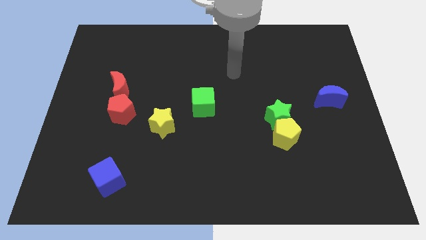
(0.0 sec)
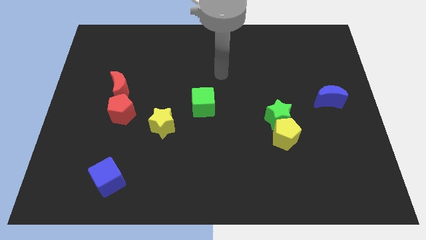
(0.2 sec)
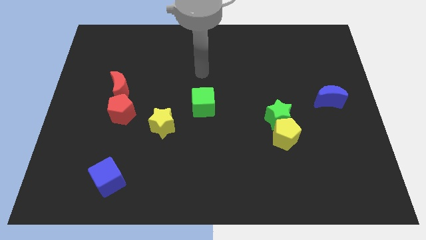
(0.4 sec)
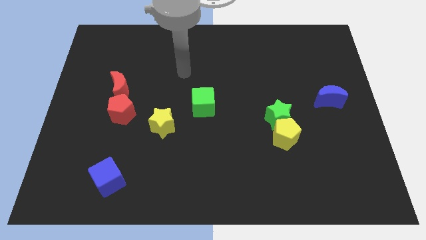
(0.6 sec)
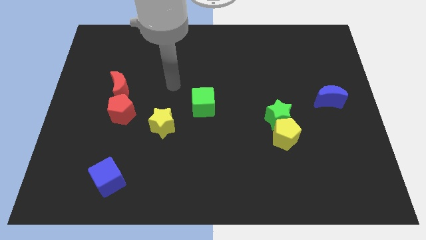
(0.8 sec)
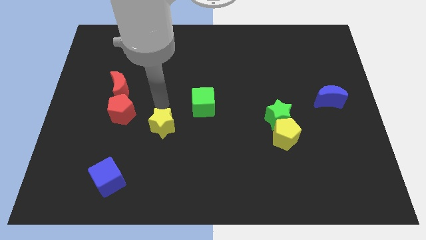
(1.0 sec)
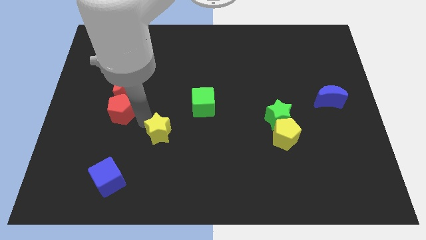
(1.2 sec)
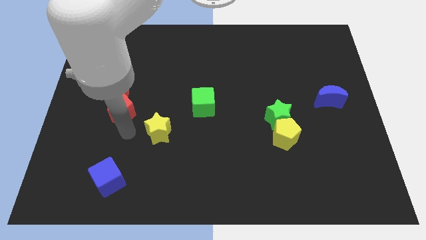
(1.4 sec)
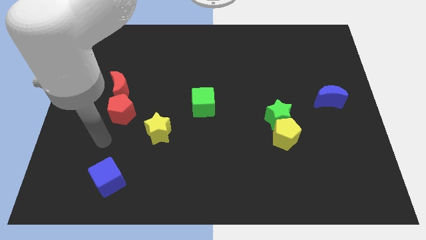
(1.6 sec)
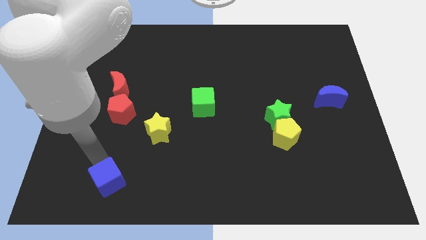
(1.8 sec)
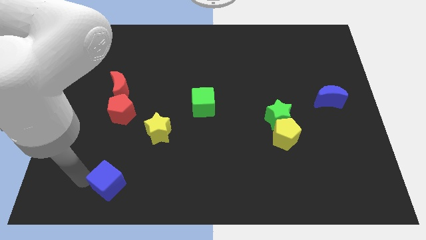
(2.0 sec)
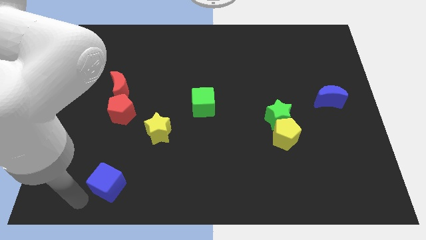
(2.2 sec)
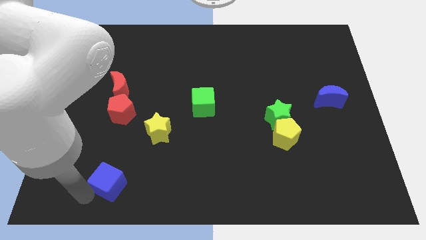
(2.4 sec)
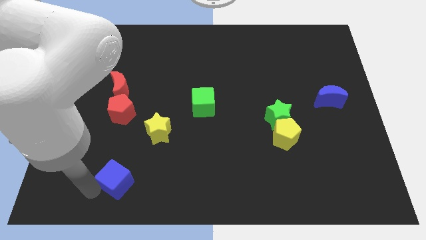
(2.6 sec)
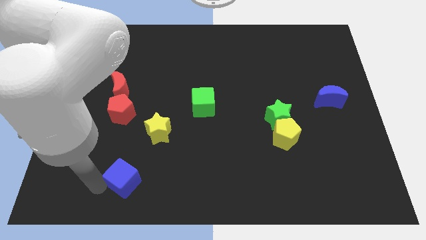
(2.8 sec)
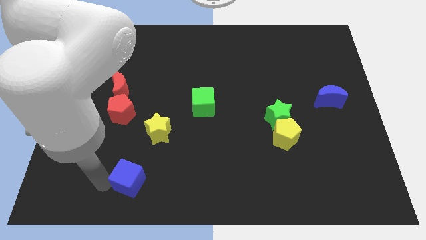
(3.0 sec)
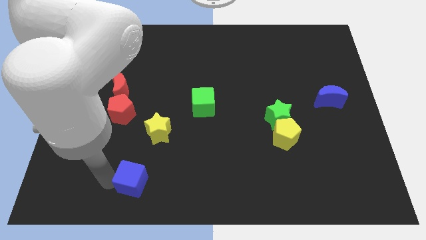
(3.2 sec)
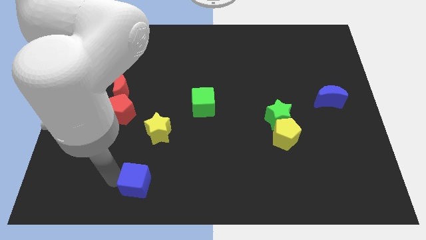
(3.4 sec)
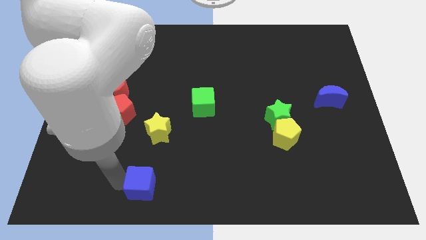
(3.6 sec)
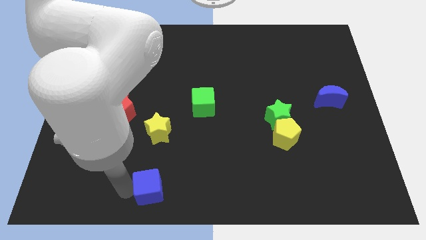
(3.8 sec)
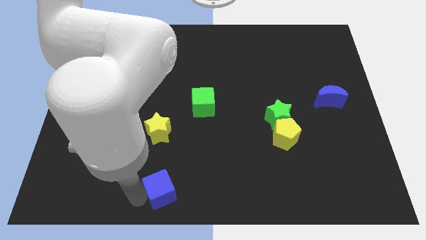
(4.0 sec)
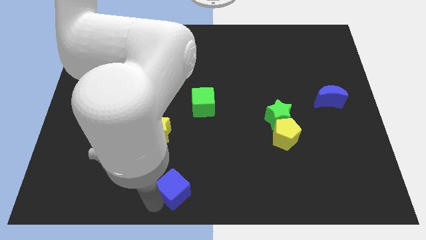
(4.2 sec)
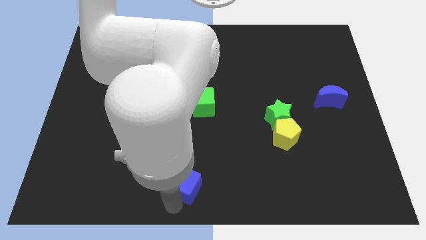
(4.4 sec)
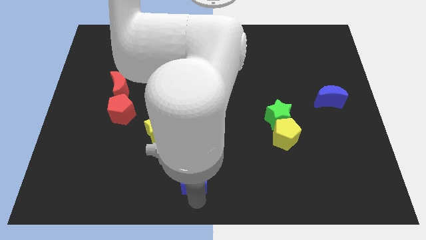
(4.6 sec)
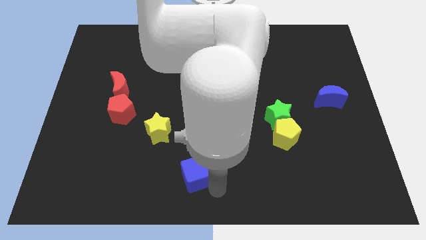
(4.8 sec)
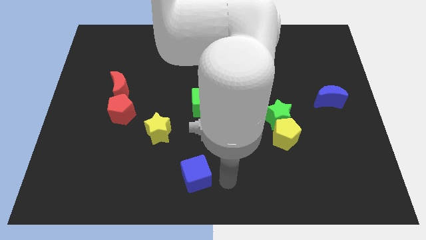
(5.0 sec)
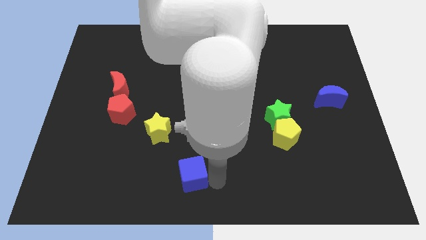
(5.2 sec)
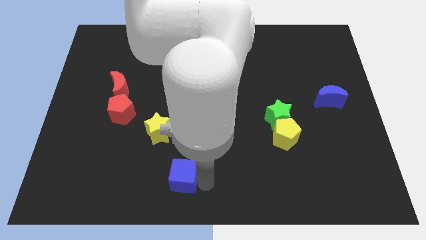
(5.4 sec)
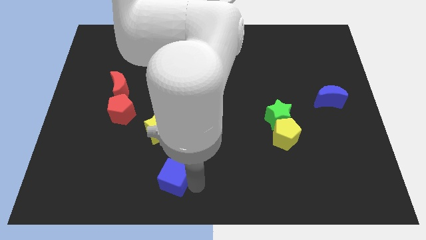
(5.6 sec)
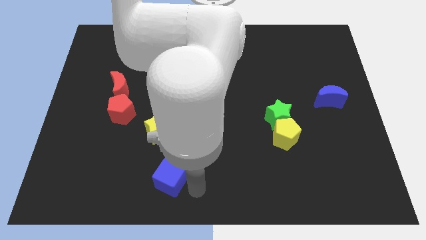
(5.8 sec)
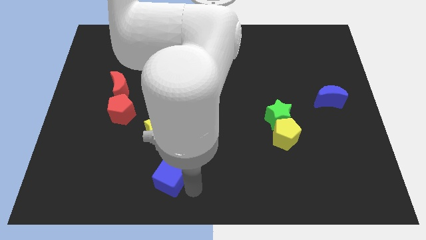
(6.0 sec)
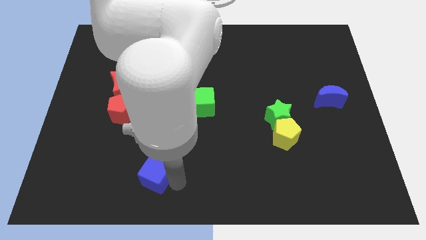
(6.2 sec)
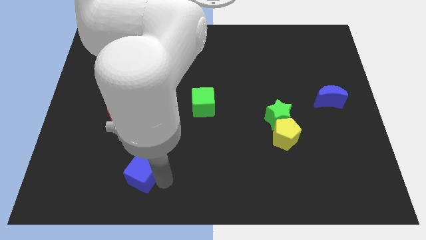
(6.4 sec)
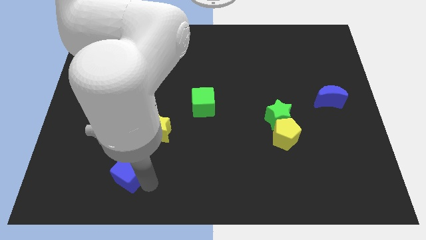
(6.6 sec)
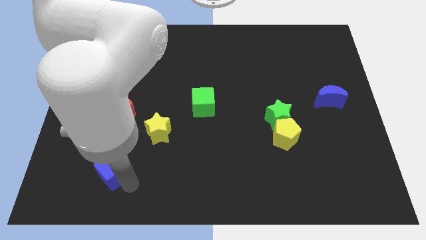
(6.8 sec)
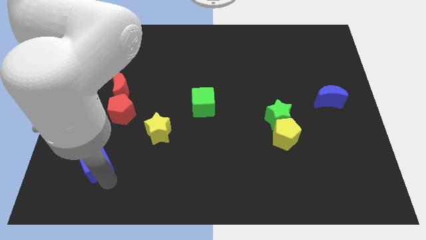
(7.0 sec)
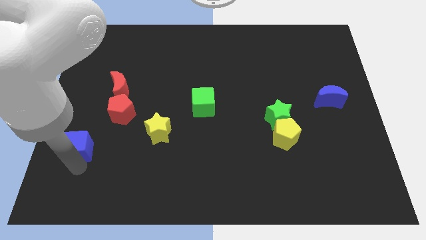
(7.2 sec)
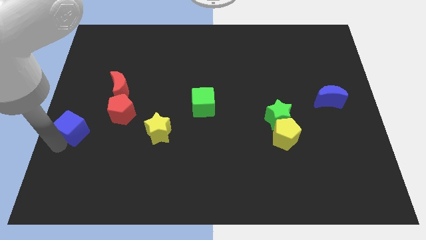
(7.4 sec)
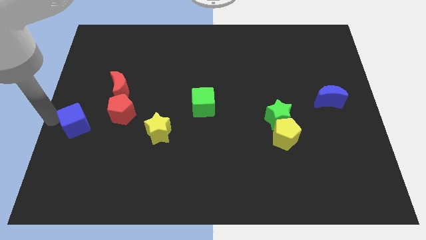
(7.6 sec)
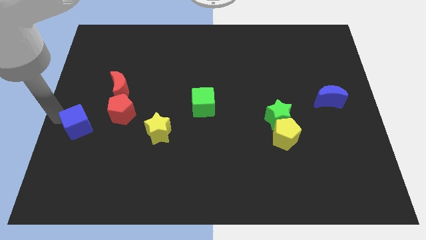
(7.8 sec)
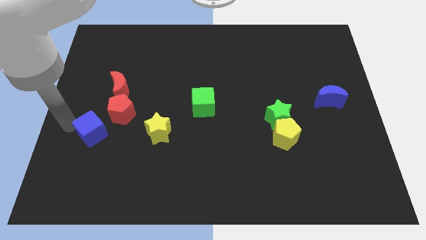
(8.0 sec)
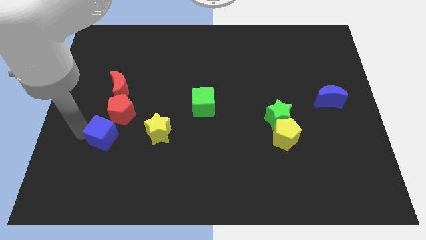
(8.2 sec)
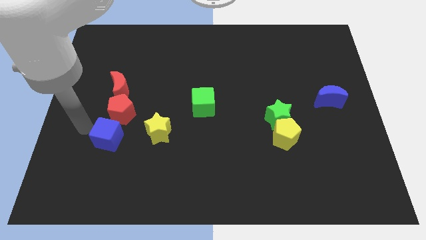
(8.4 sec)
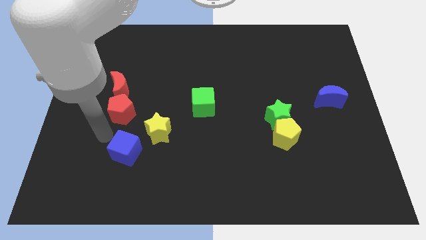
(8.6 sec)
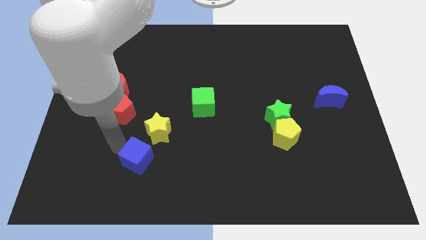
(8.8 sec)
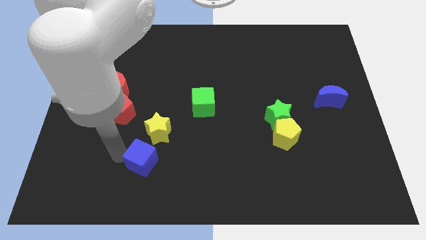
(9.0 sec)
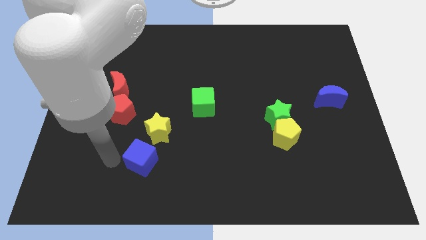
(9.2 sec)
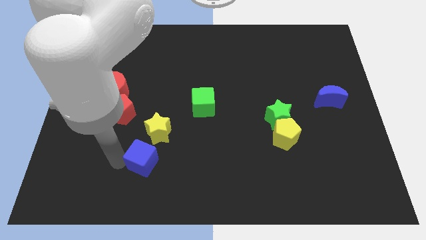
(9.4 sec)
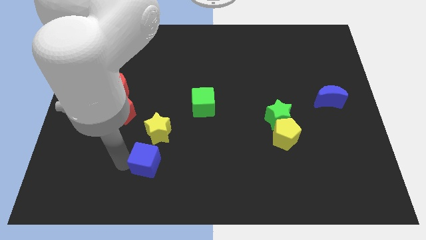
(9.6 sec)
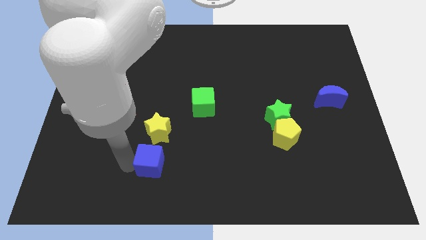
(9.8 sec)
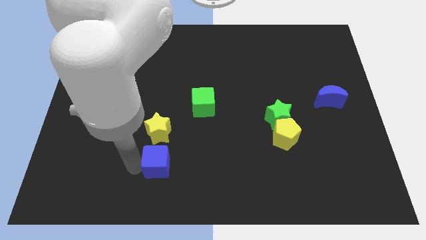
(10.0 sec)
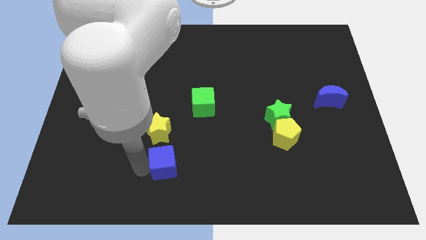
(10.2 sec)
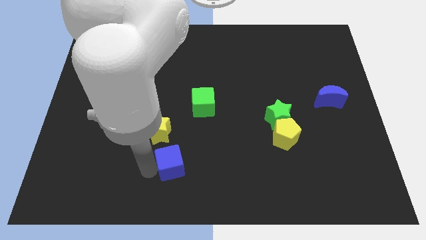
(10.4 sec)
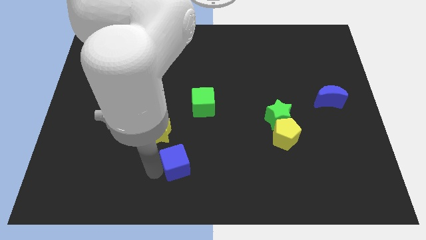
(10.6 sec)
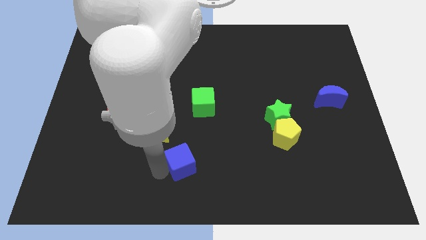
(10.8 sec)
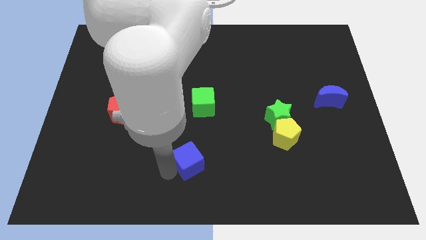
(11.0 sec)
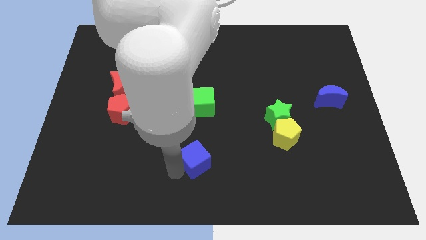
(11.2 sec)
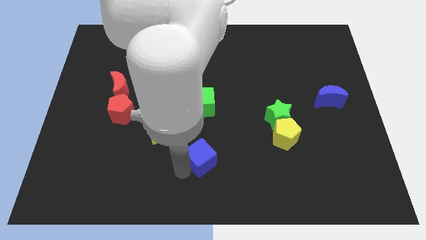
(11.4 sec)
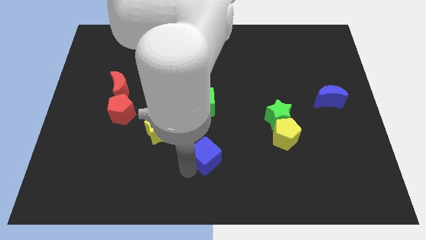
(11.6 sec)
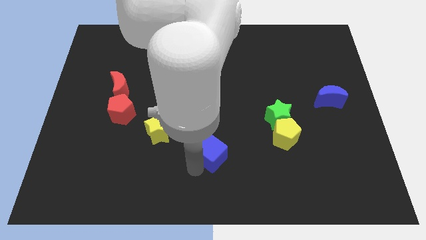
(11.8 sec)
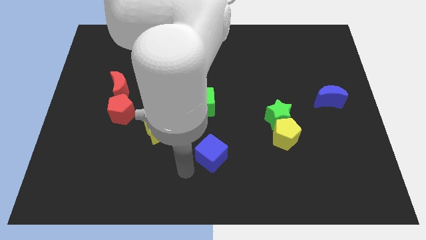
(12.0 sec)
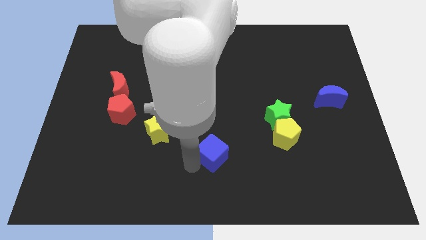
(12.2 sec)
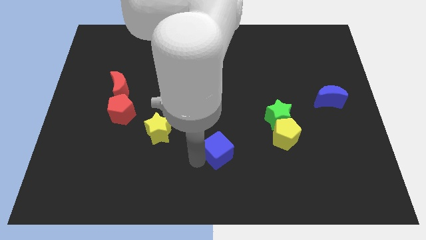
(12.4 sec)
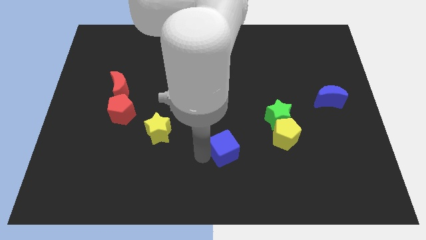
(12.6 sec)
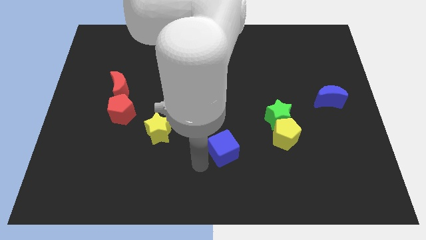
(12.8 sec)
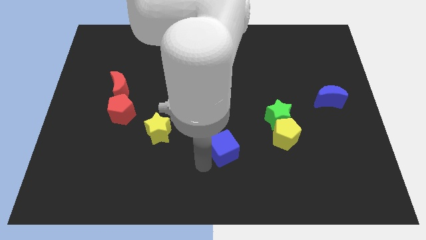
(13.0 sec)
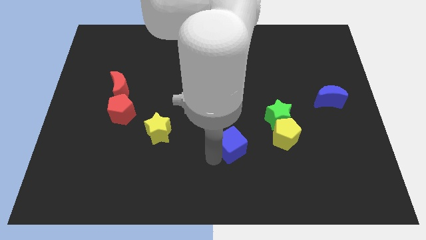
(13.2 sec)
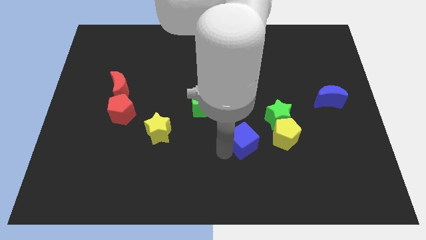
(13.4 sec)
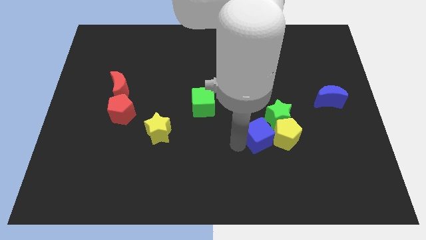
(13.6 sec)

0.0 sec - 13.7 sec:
move the blue cube to the yellow pentagon
